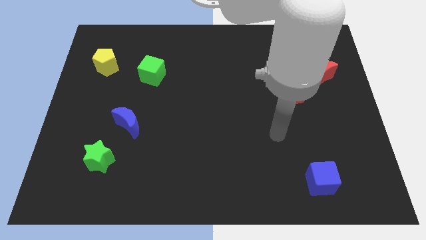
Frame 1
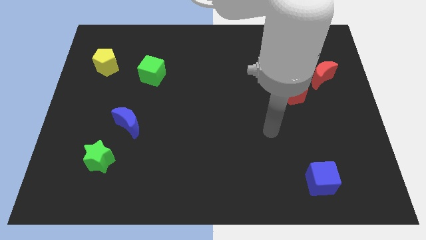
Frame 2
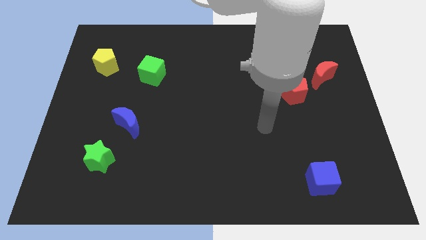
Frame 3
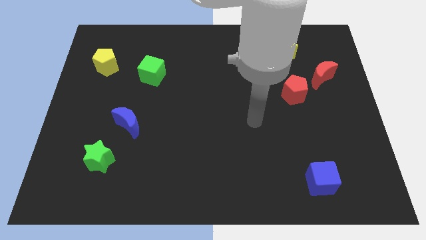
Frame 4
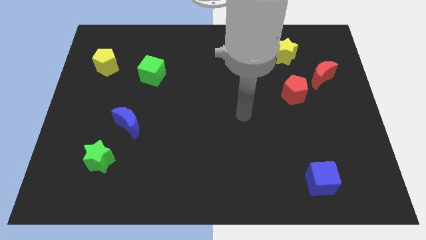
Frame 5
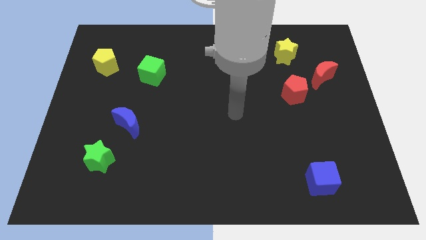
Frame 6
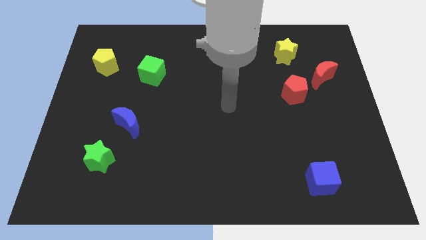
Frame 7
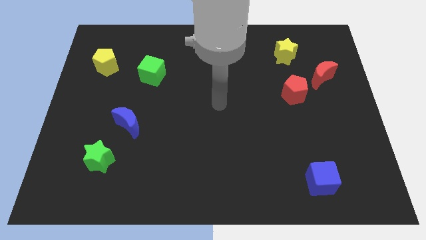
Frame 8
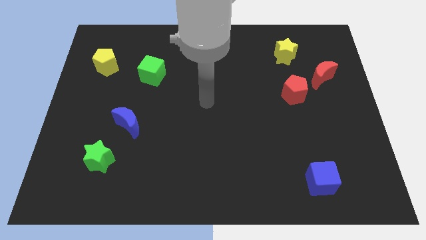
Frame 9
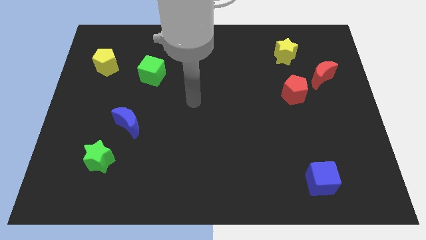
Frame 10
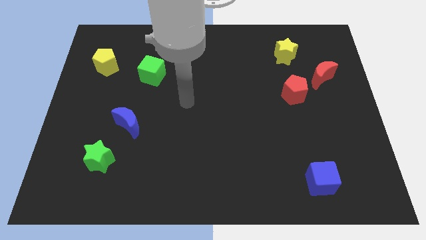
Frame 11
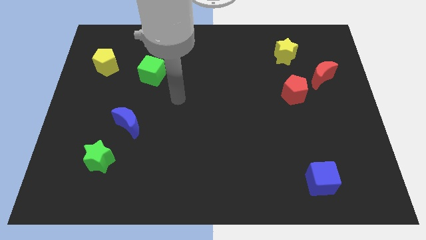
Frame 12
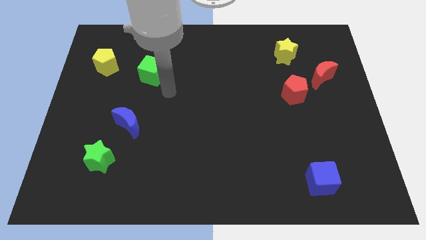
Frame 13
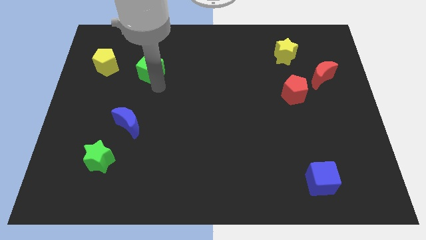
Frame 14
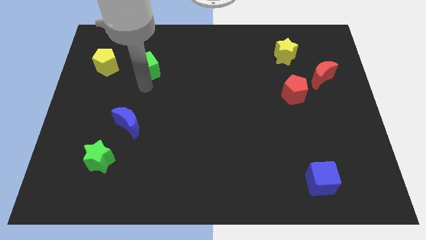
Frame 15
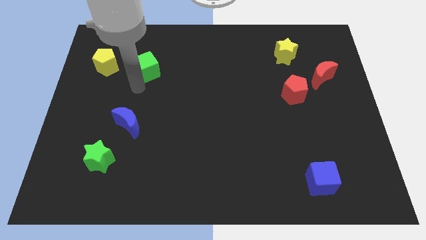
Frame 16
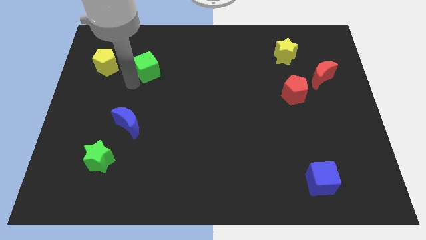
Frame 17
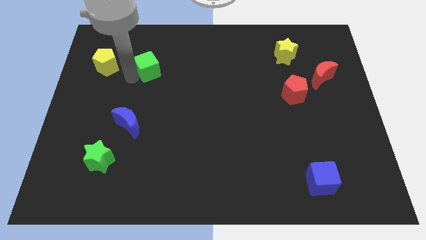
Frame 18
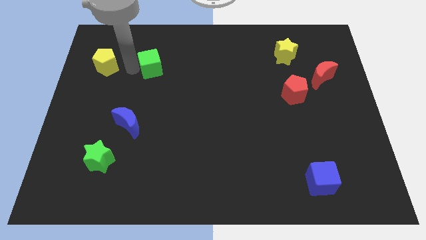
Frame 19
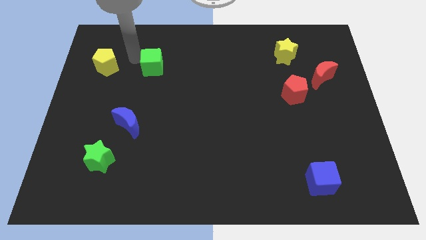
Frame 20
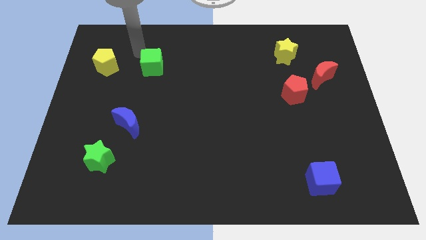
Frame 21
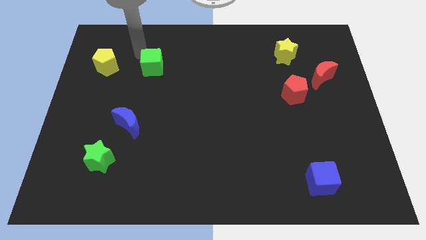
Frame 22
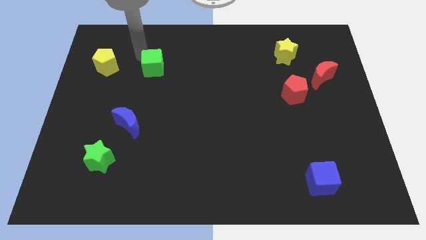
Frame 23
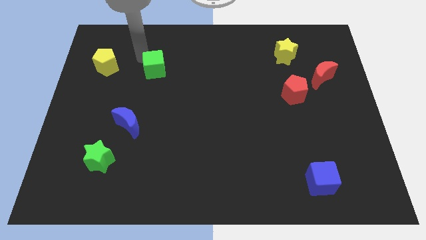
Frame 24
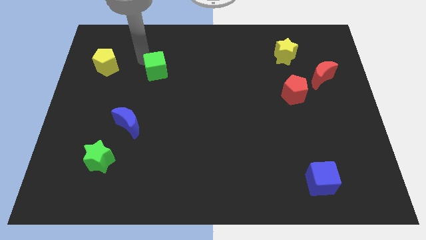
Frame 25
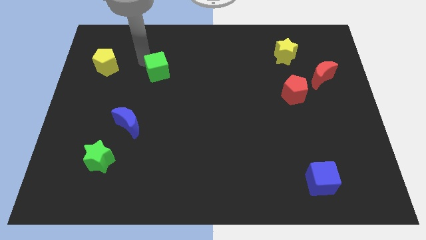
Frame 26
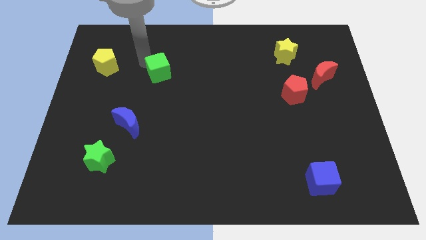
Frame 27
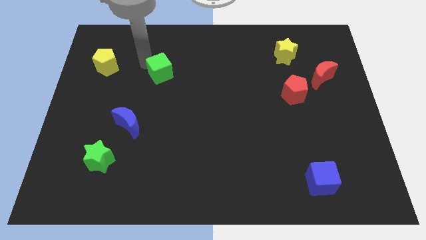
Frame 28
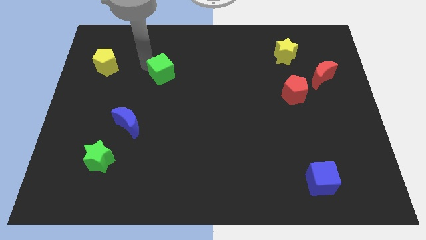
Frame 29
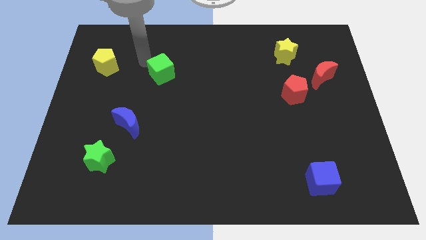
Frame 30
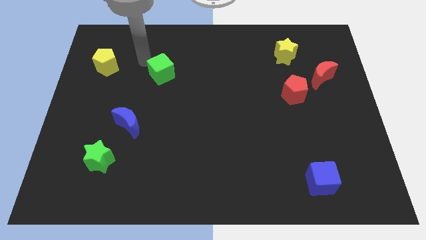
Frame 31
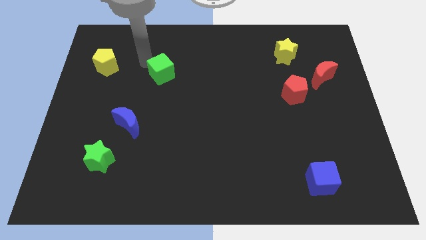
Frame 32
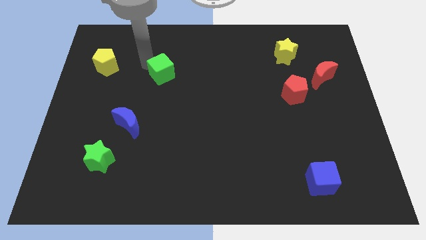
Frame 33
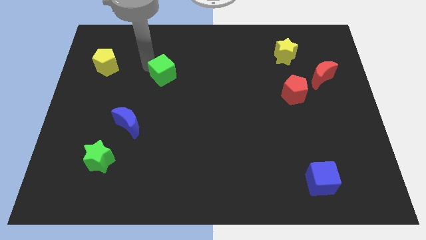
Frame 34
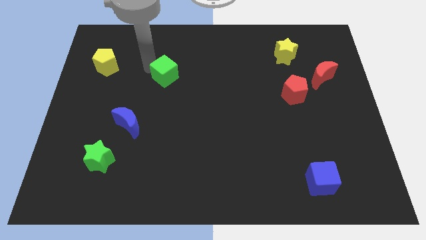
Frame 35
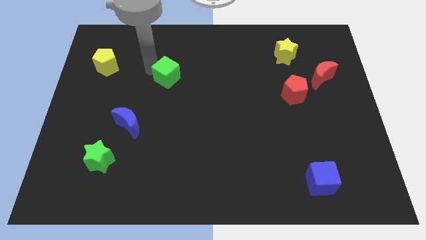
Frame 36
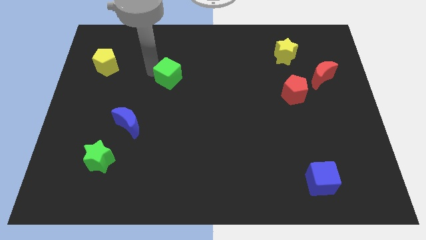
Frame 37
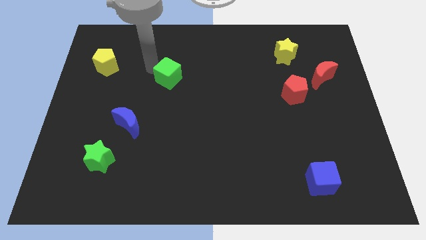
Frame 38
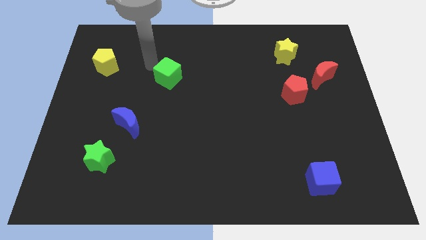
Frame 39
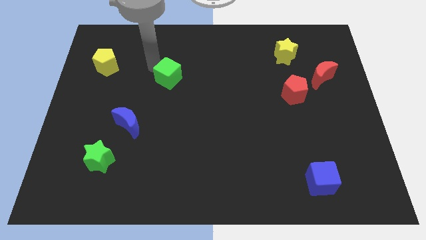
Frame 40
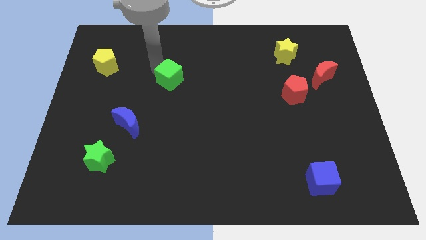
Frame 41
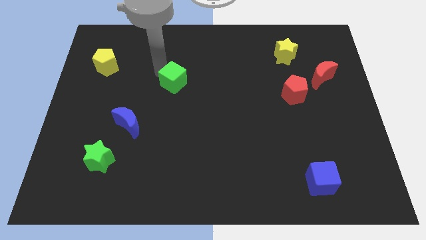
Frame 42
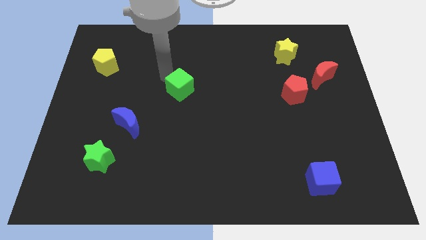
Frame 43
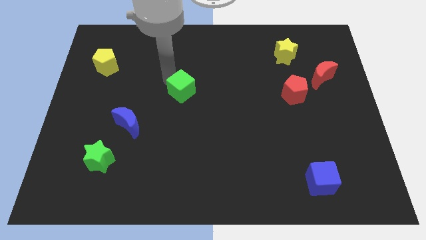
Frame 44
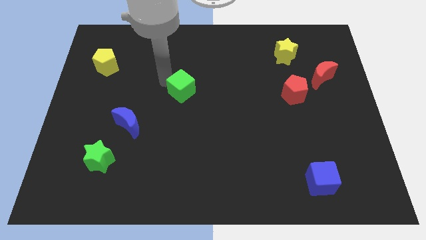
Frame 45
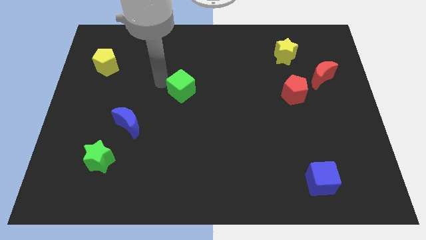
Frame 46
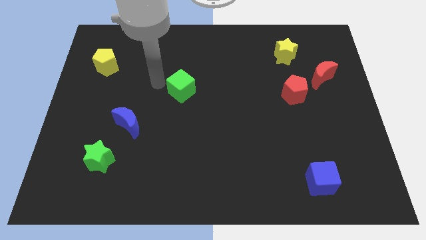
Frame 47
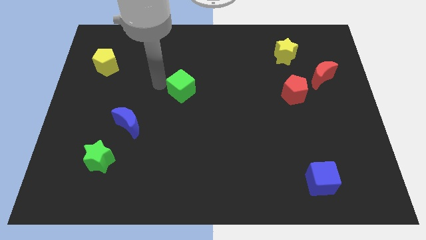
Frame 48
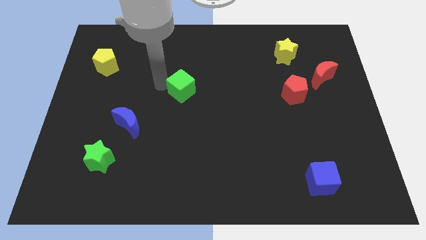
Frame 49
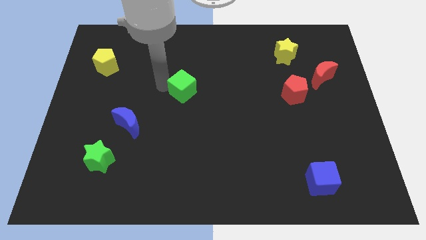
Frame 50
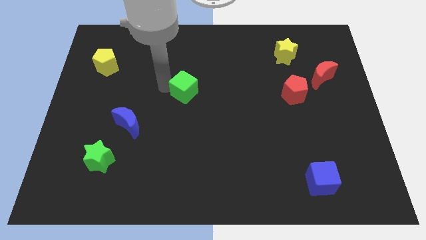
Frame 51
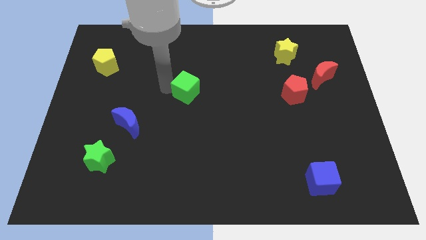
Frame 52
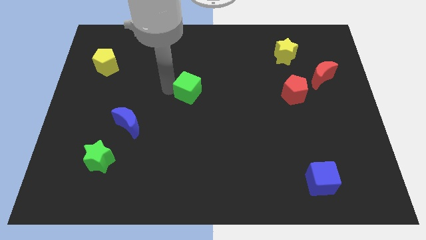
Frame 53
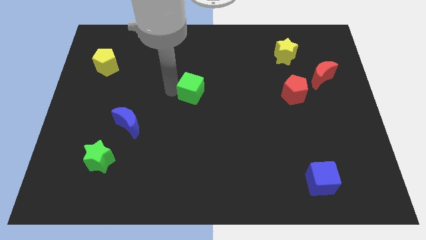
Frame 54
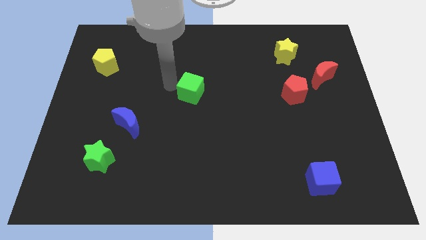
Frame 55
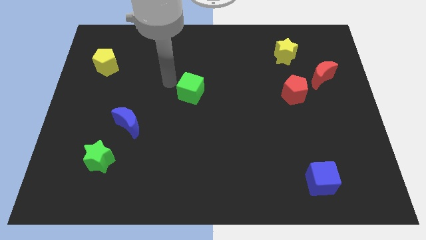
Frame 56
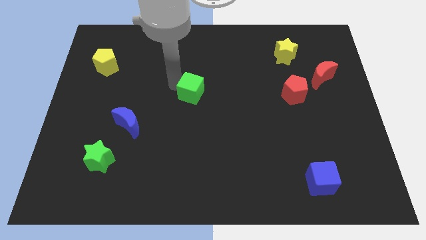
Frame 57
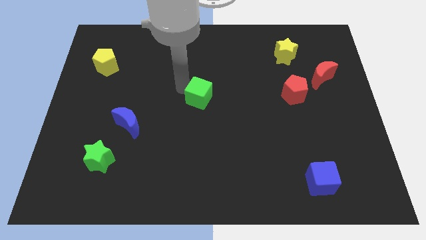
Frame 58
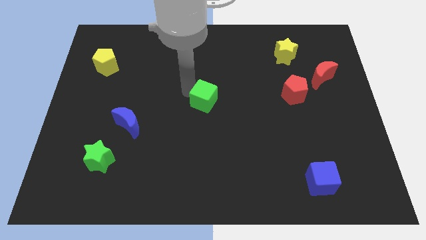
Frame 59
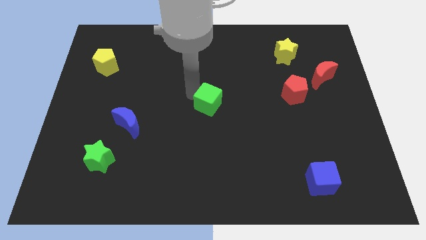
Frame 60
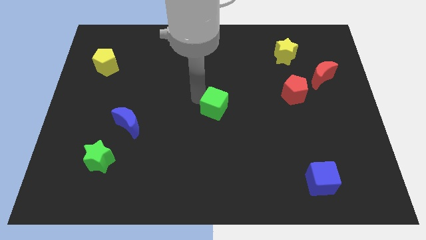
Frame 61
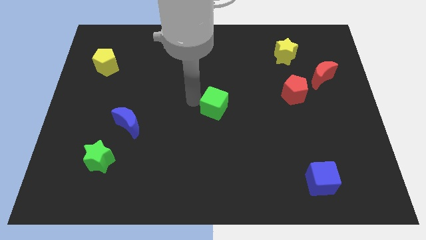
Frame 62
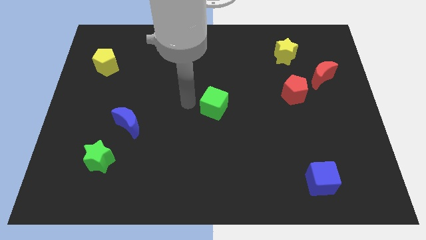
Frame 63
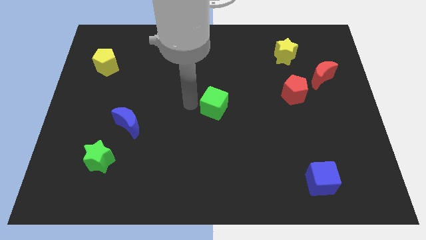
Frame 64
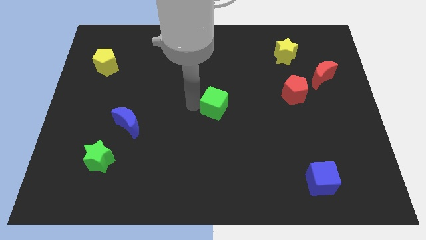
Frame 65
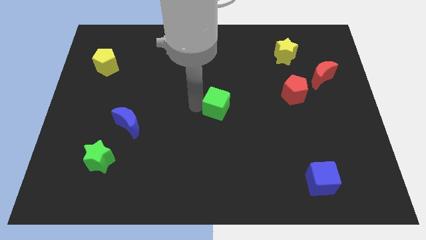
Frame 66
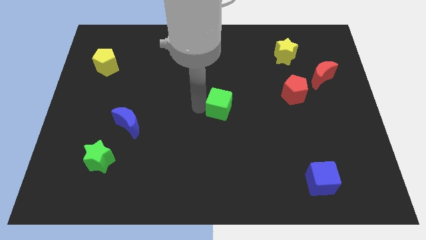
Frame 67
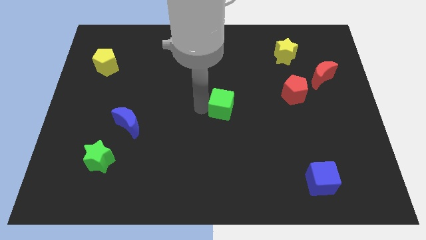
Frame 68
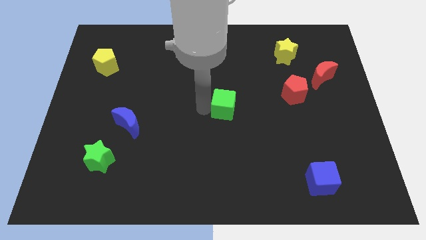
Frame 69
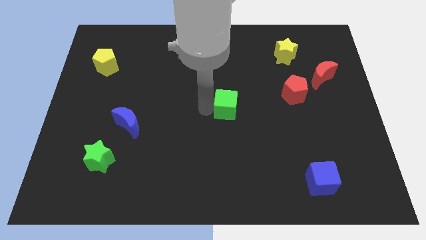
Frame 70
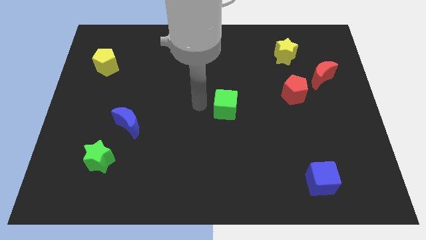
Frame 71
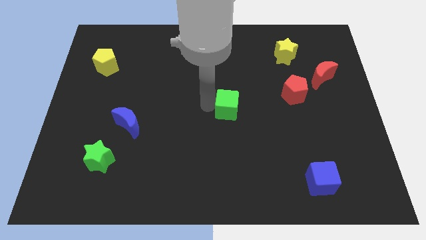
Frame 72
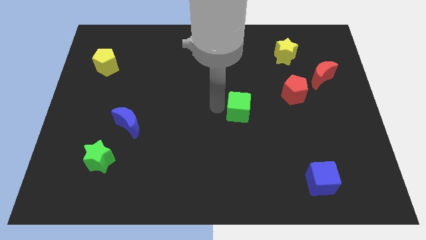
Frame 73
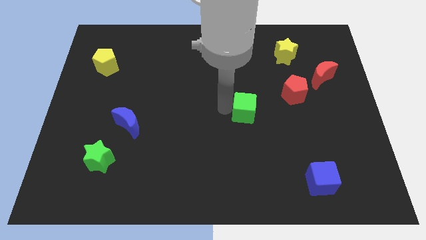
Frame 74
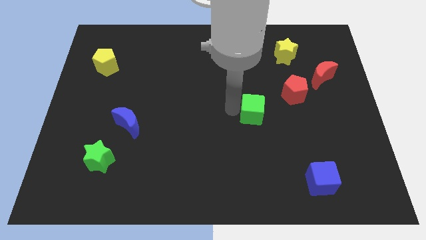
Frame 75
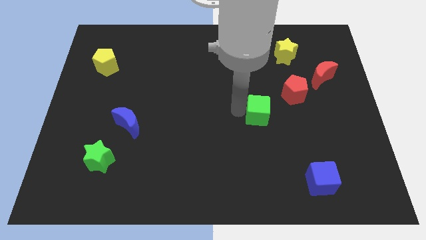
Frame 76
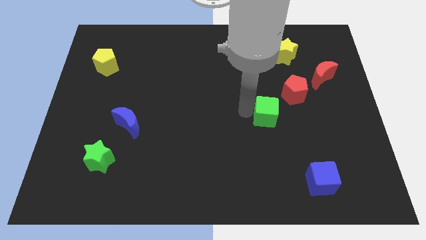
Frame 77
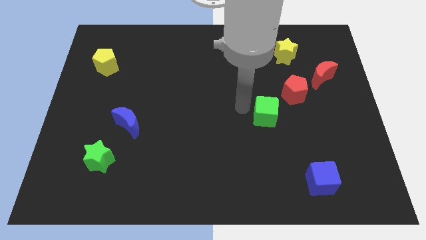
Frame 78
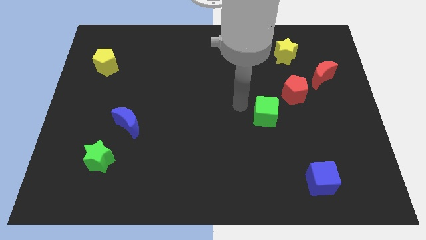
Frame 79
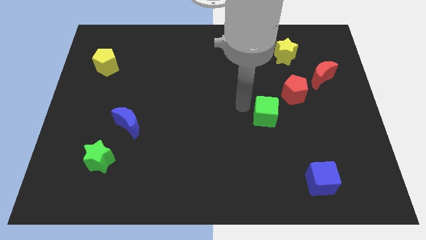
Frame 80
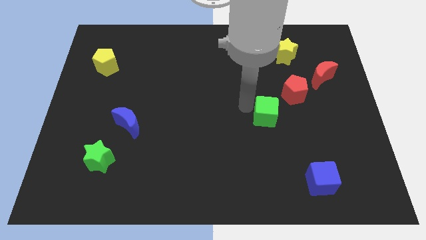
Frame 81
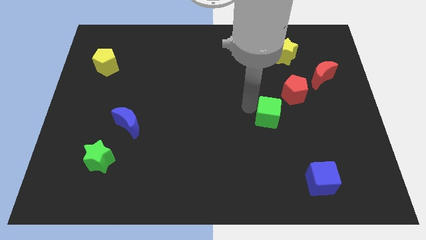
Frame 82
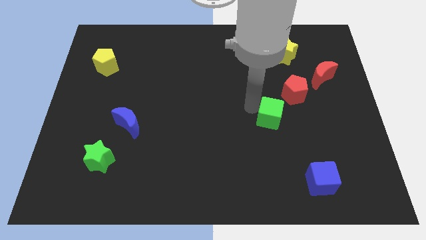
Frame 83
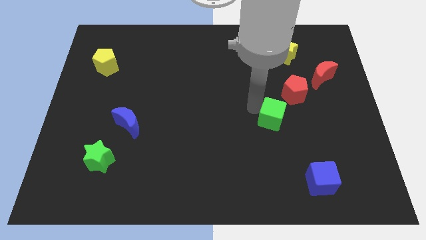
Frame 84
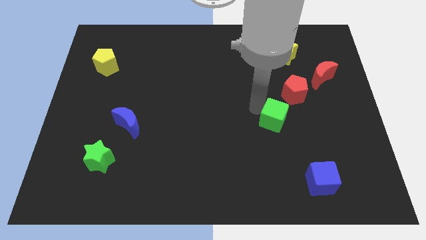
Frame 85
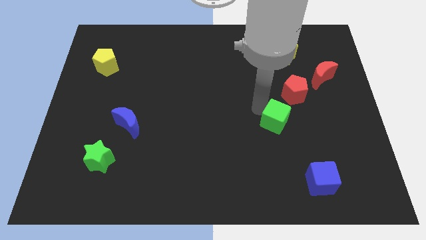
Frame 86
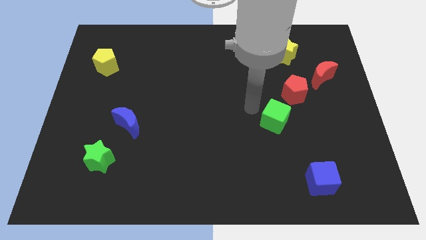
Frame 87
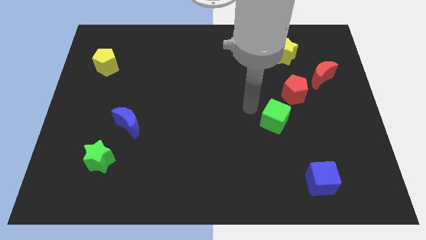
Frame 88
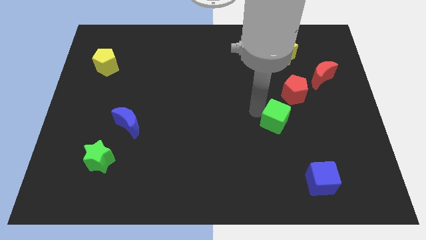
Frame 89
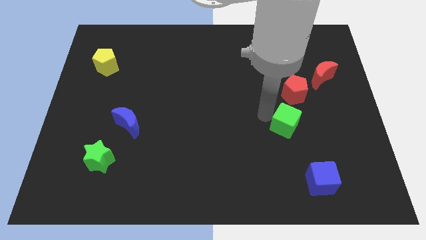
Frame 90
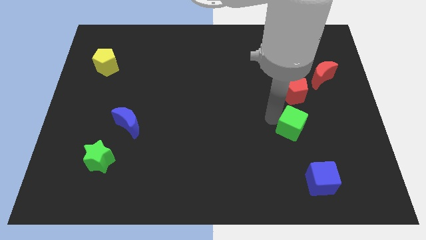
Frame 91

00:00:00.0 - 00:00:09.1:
put the green cube to the top side of the blue cube
